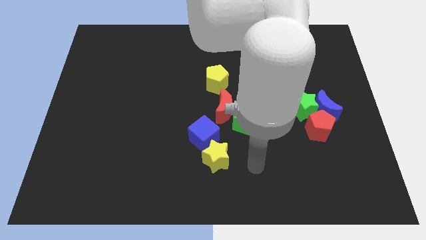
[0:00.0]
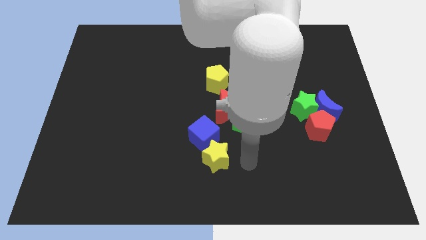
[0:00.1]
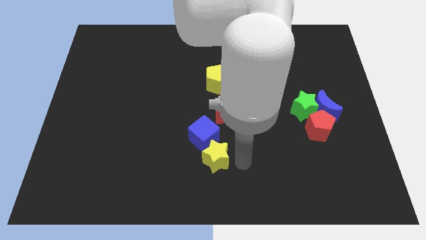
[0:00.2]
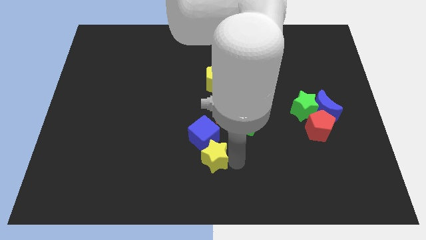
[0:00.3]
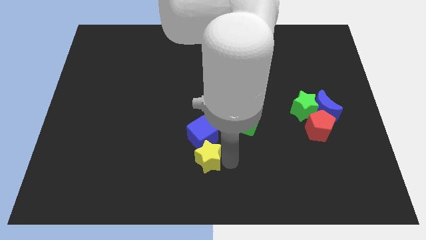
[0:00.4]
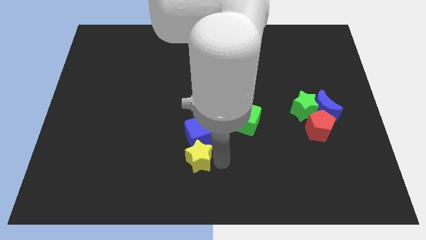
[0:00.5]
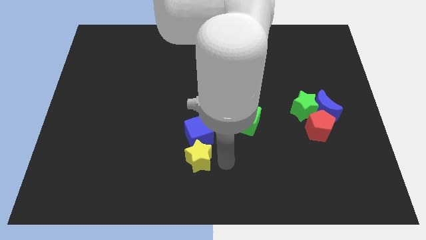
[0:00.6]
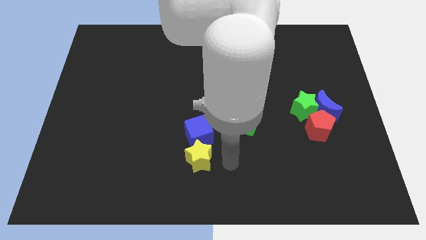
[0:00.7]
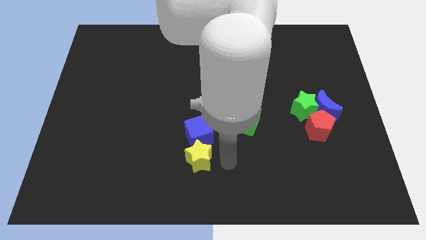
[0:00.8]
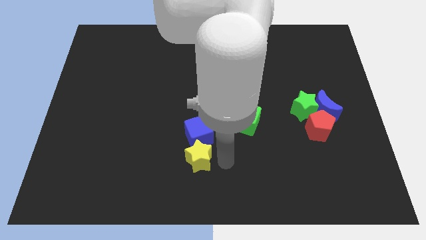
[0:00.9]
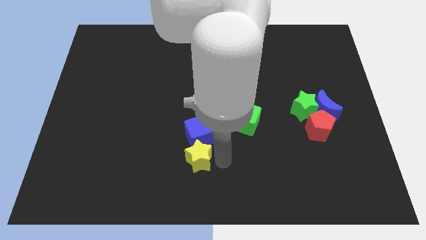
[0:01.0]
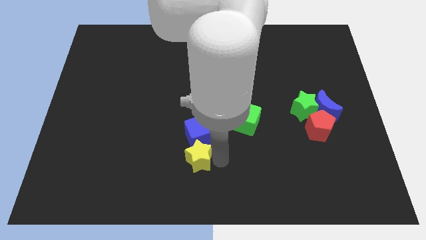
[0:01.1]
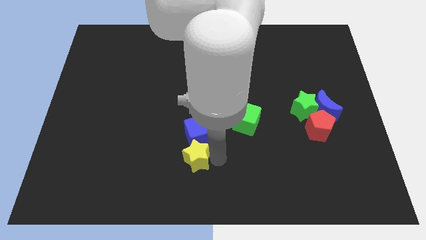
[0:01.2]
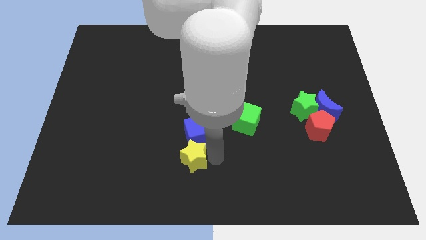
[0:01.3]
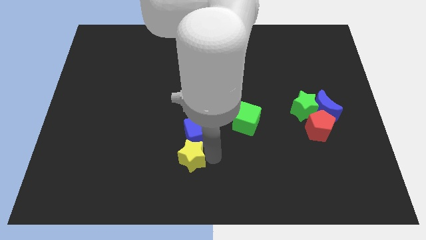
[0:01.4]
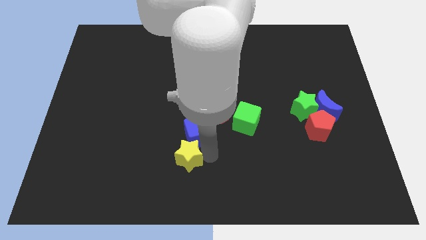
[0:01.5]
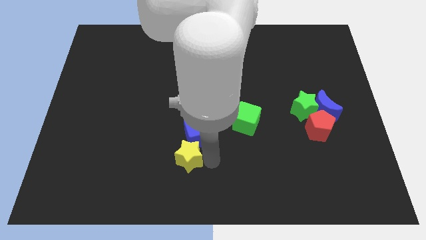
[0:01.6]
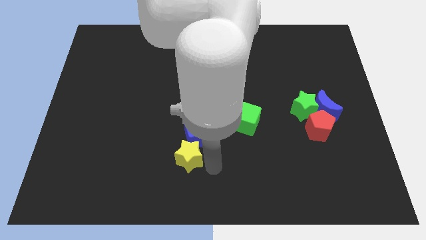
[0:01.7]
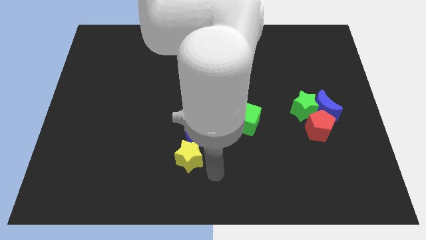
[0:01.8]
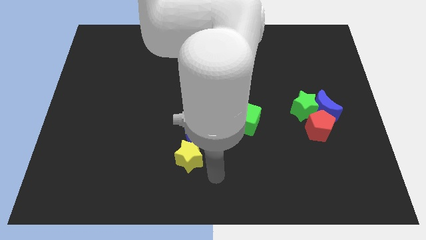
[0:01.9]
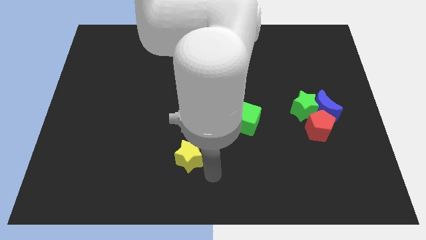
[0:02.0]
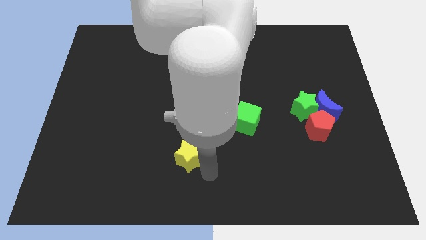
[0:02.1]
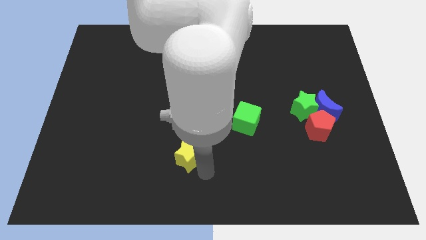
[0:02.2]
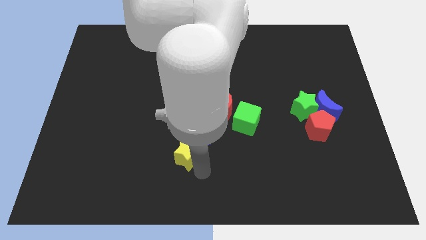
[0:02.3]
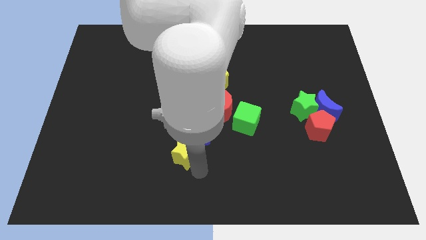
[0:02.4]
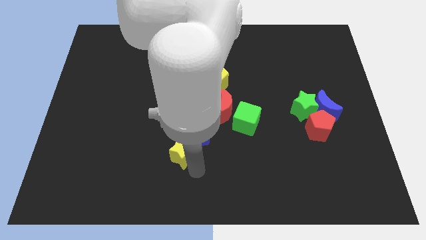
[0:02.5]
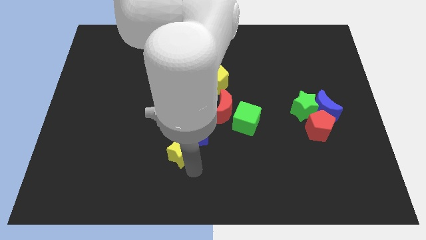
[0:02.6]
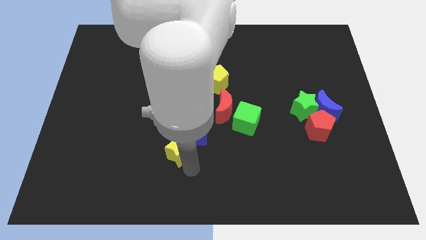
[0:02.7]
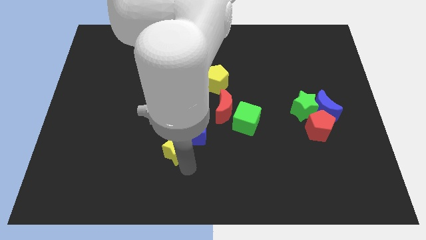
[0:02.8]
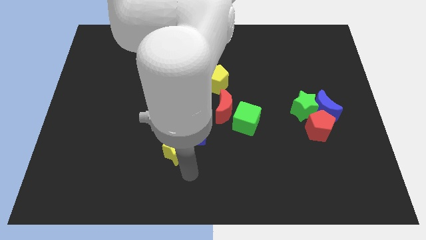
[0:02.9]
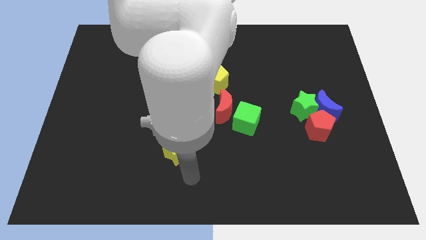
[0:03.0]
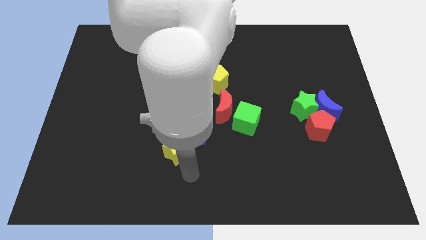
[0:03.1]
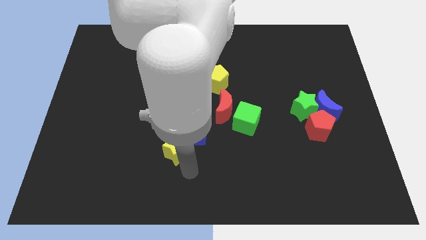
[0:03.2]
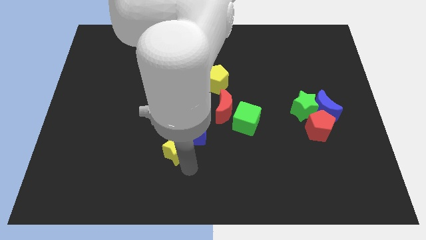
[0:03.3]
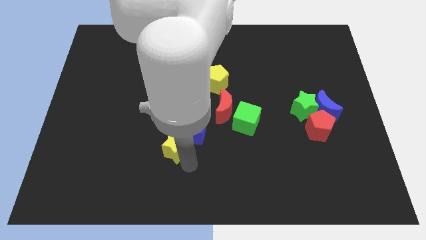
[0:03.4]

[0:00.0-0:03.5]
slightly move the yellow star diagonally upwards and left

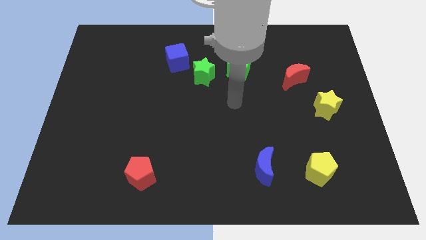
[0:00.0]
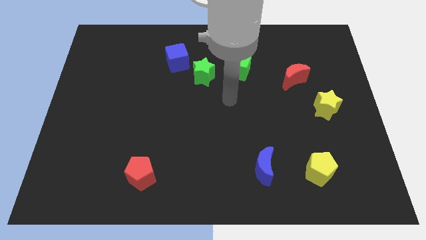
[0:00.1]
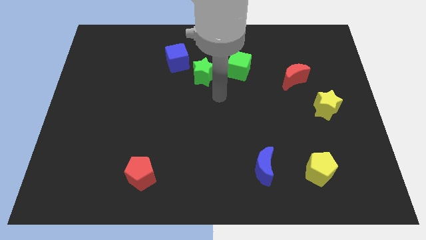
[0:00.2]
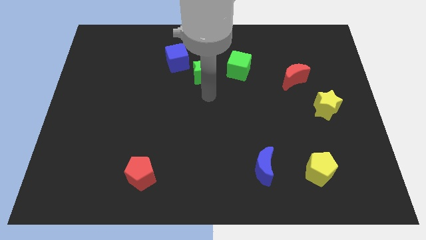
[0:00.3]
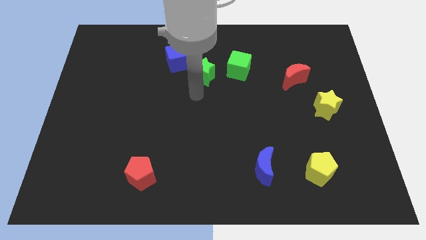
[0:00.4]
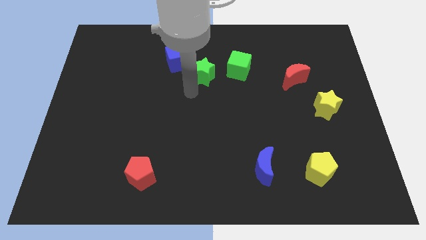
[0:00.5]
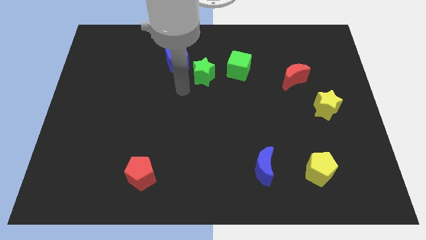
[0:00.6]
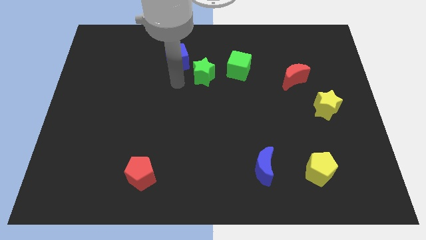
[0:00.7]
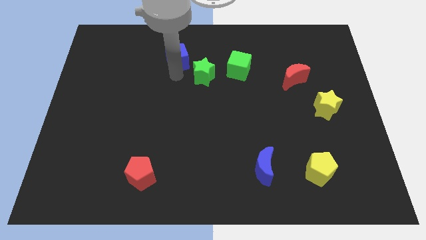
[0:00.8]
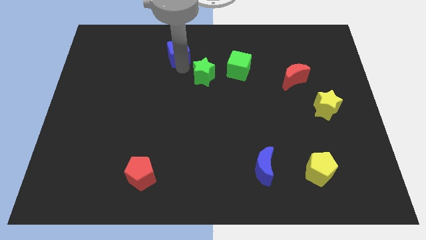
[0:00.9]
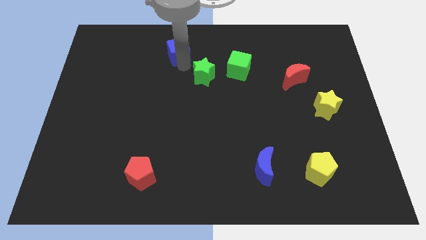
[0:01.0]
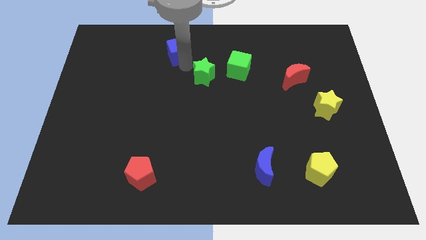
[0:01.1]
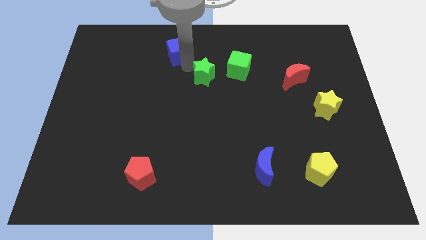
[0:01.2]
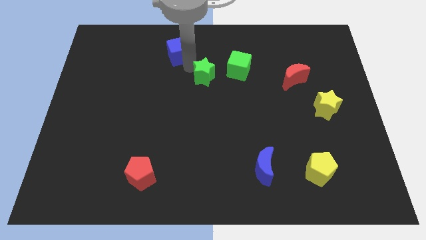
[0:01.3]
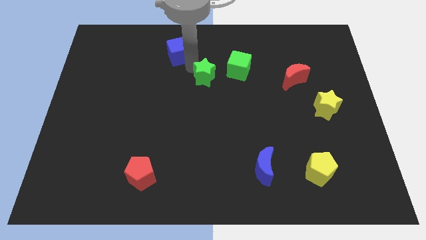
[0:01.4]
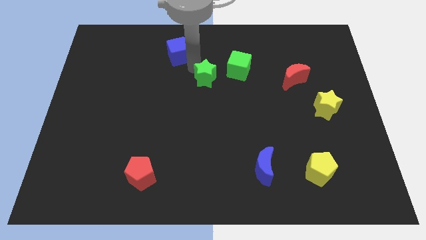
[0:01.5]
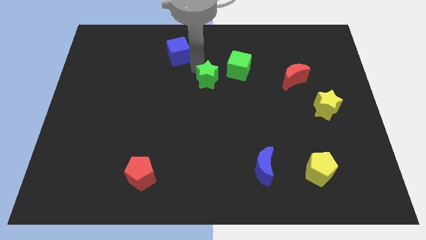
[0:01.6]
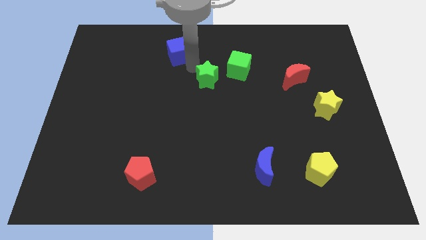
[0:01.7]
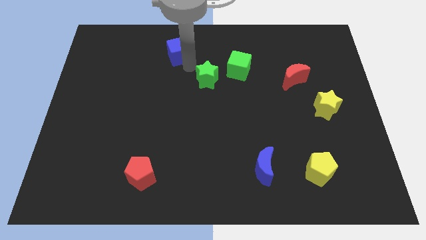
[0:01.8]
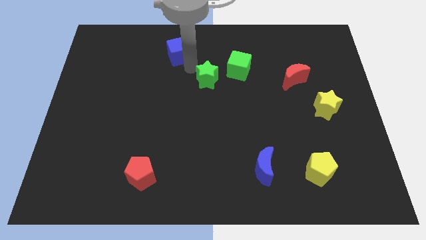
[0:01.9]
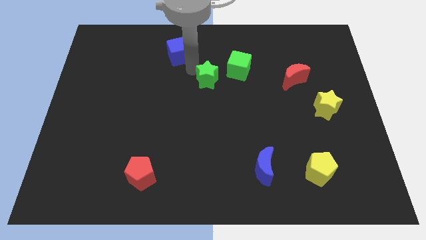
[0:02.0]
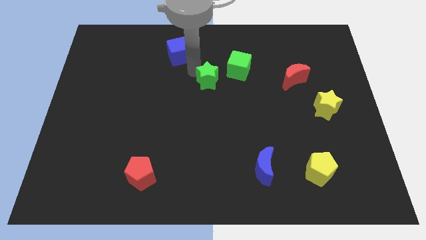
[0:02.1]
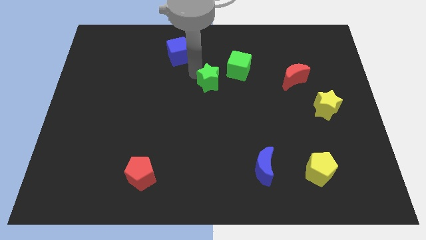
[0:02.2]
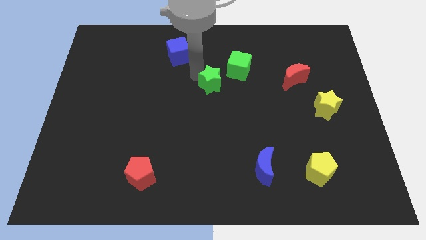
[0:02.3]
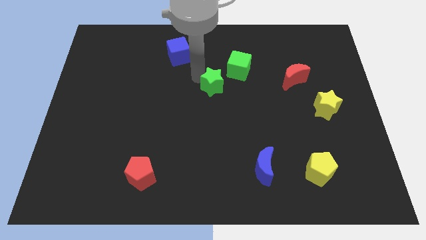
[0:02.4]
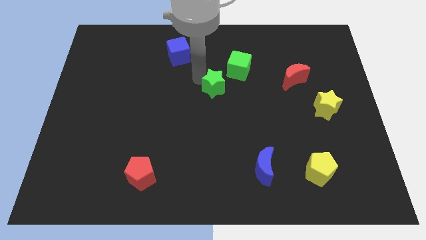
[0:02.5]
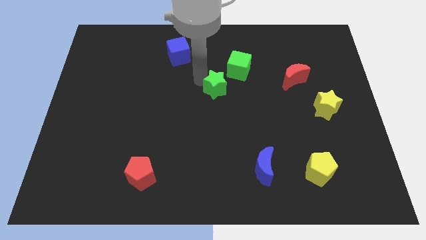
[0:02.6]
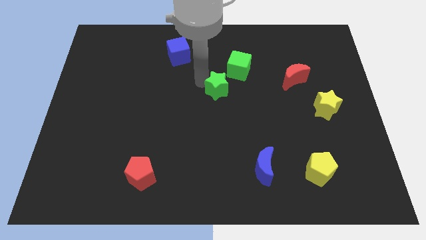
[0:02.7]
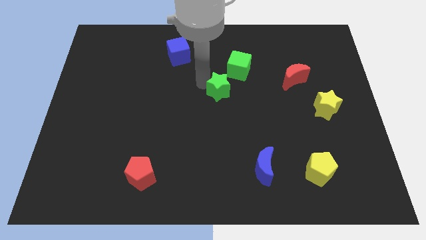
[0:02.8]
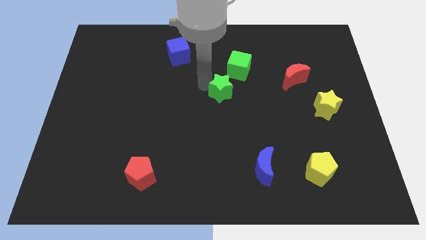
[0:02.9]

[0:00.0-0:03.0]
push the green star diagonally down and right a bit

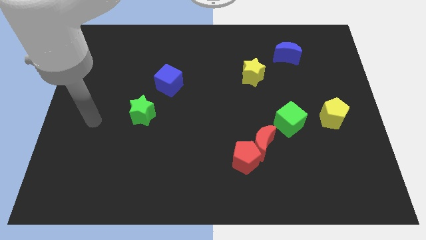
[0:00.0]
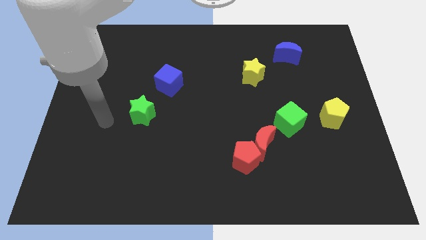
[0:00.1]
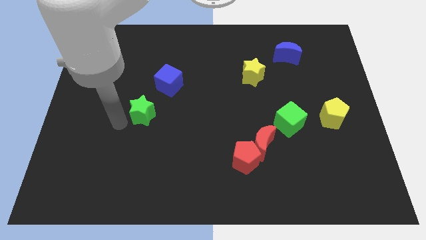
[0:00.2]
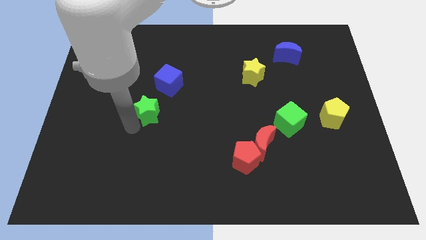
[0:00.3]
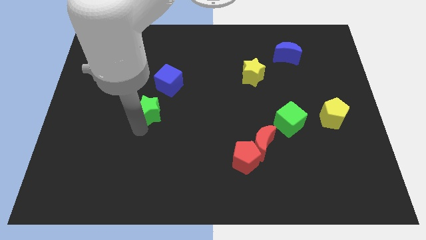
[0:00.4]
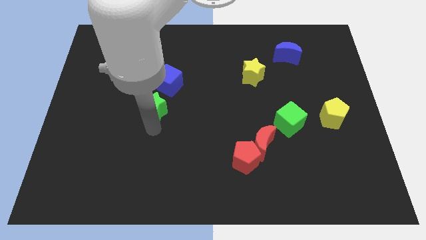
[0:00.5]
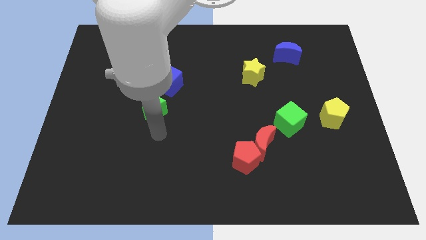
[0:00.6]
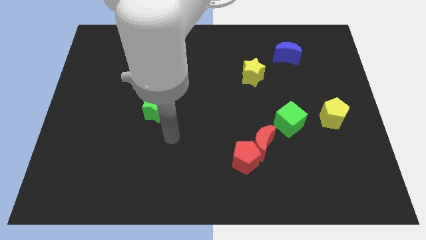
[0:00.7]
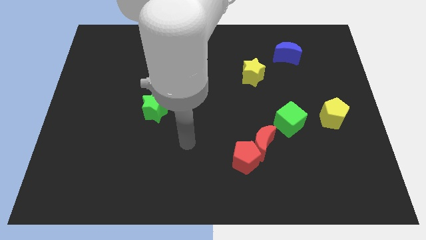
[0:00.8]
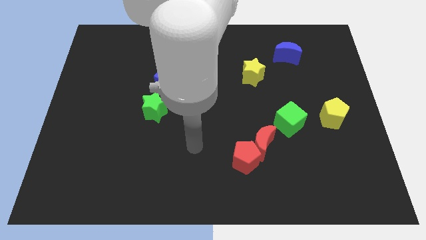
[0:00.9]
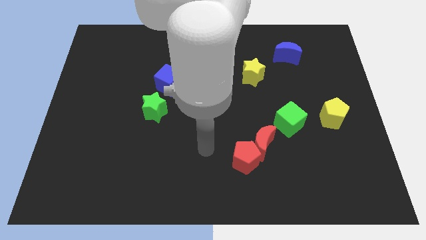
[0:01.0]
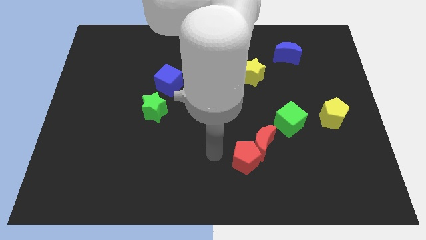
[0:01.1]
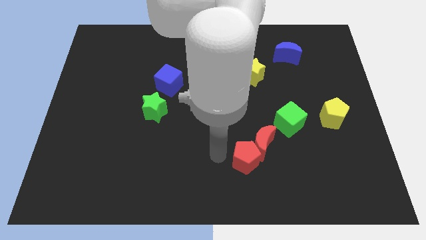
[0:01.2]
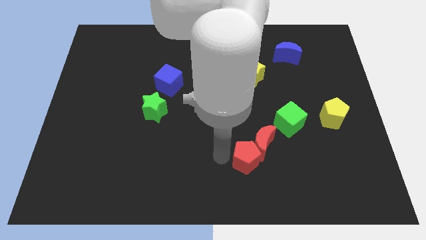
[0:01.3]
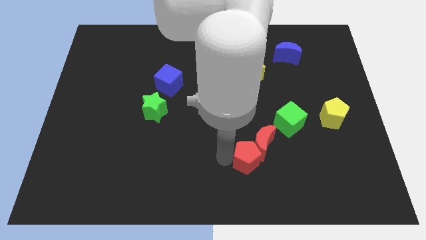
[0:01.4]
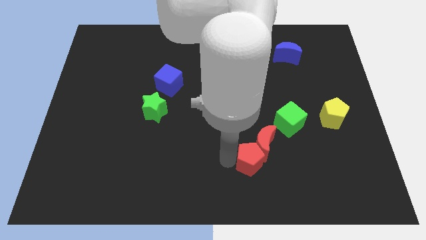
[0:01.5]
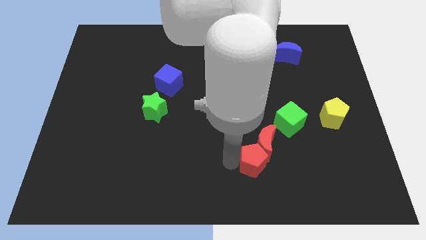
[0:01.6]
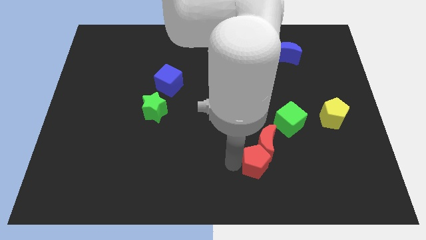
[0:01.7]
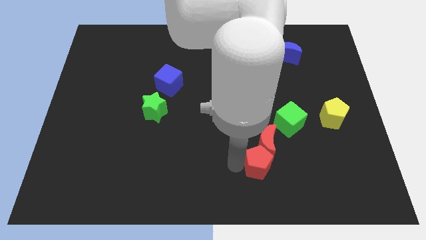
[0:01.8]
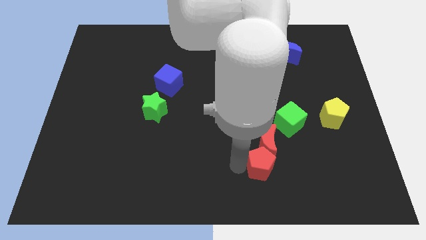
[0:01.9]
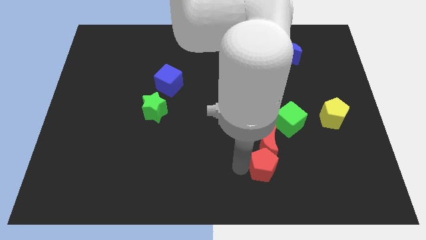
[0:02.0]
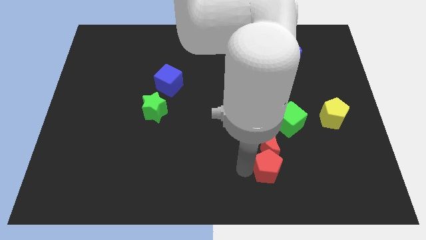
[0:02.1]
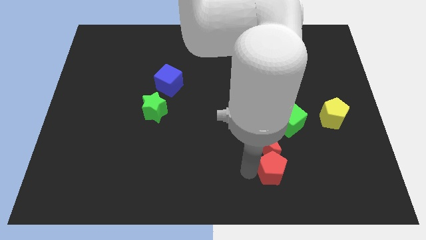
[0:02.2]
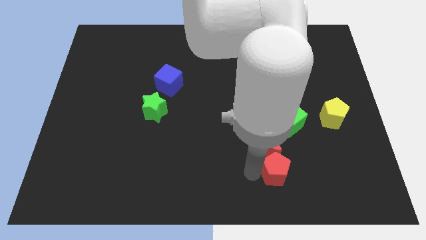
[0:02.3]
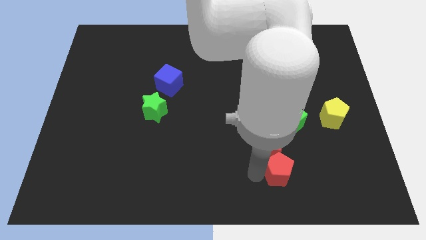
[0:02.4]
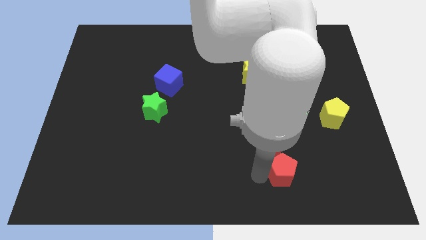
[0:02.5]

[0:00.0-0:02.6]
push the red pentagon a little bit right
